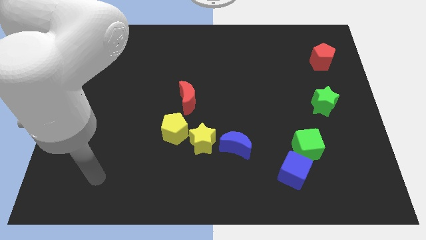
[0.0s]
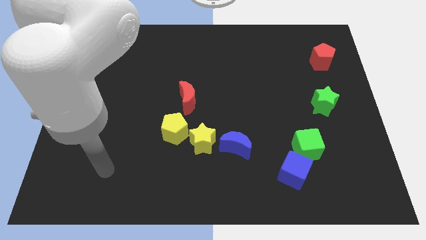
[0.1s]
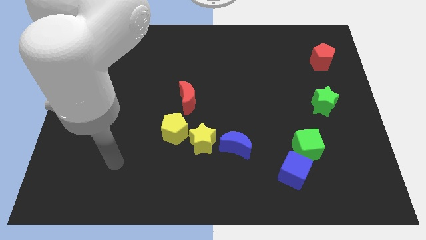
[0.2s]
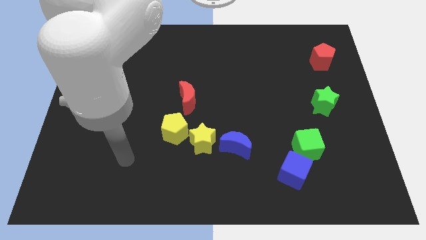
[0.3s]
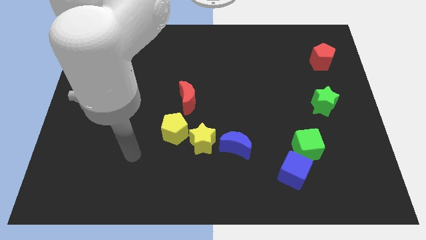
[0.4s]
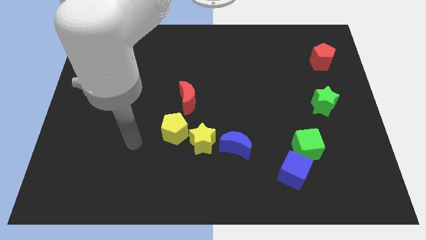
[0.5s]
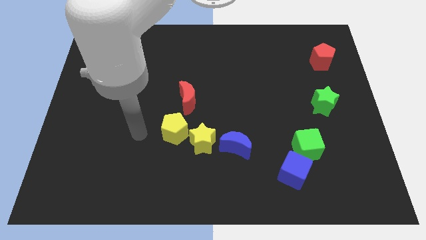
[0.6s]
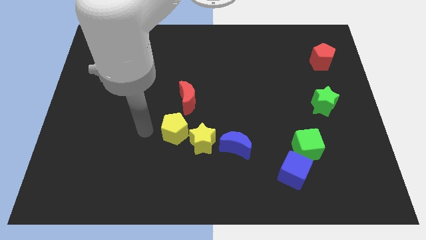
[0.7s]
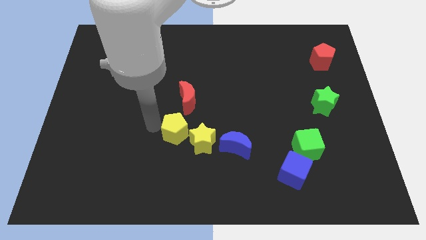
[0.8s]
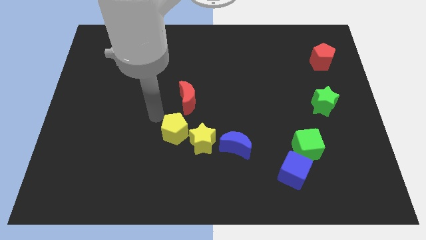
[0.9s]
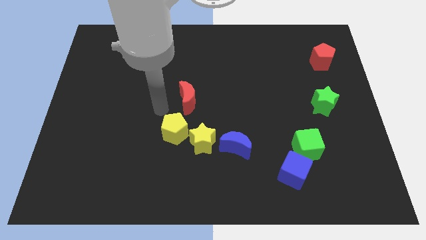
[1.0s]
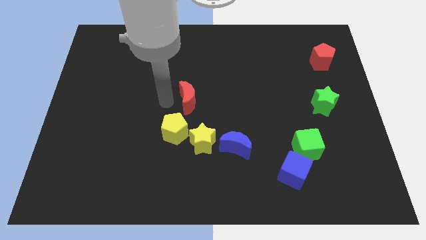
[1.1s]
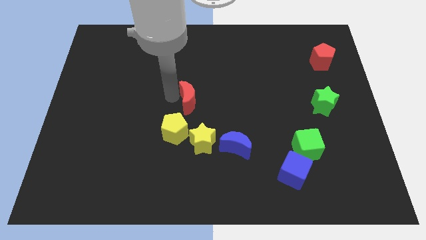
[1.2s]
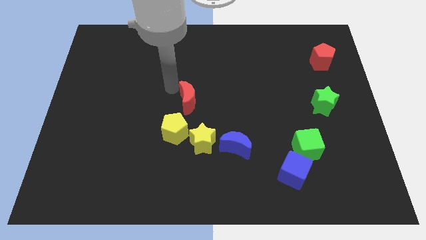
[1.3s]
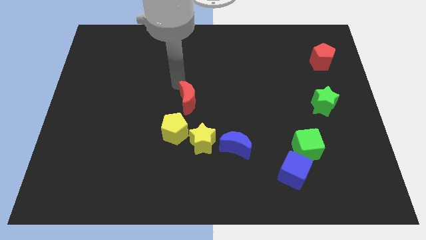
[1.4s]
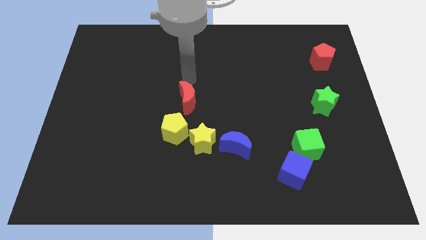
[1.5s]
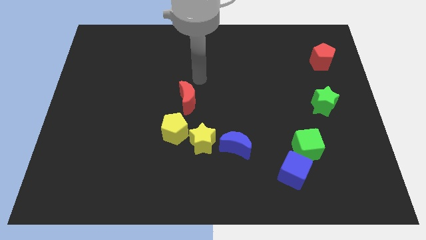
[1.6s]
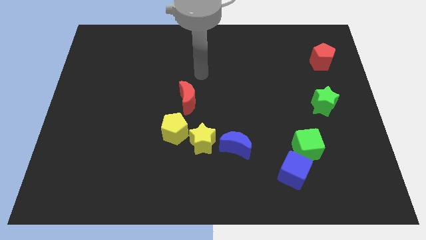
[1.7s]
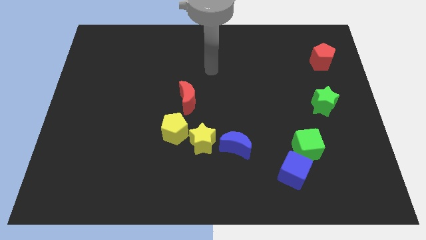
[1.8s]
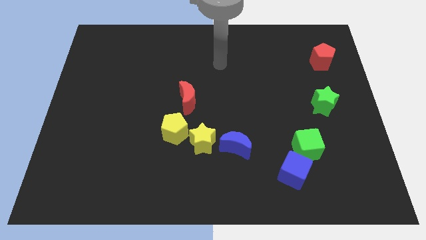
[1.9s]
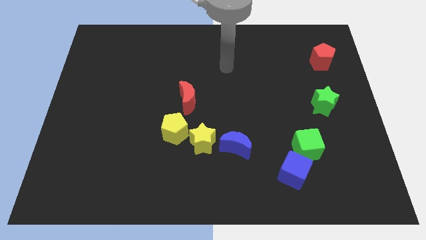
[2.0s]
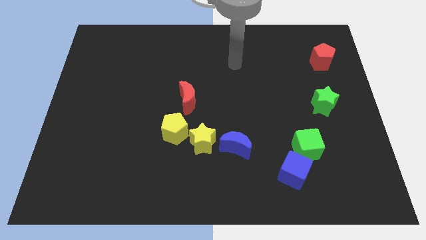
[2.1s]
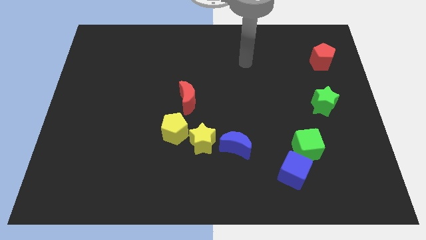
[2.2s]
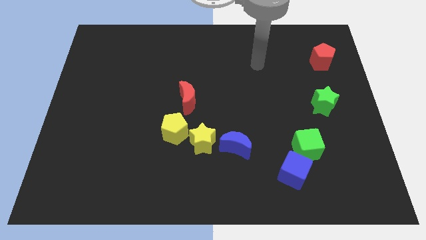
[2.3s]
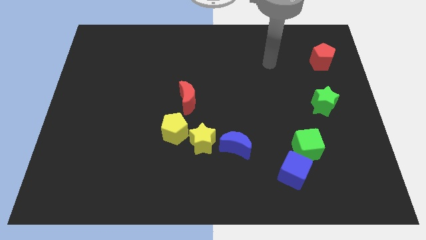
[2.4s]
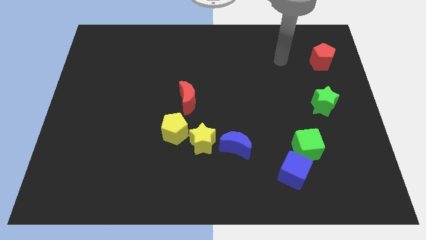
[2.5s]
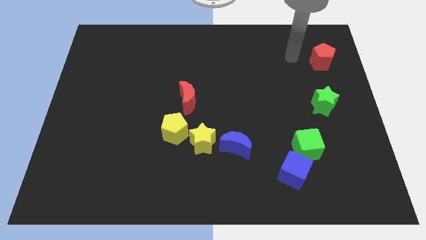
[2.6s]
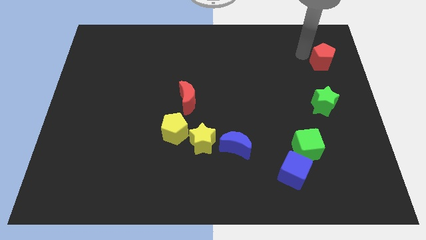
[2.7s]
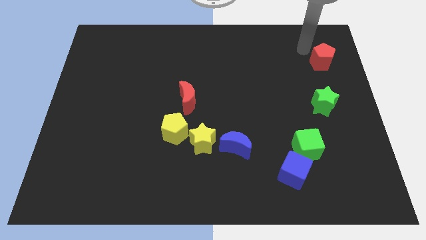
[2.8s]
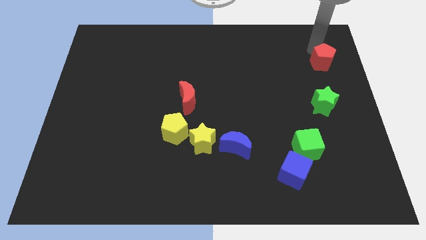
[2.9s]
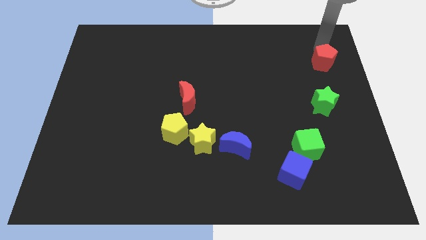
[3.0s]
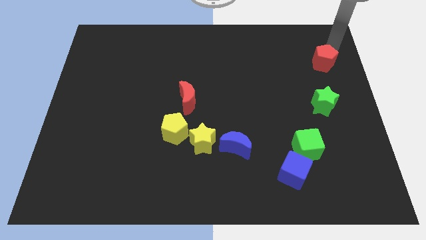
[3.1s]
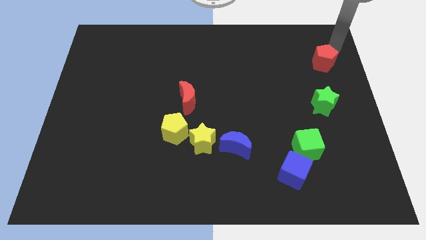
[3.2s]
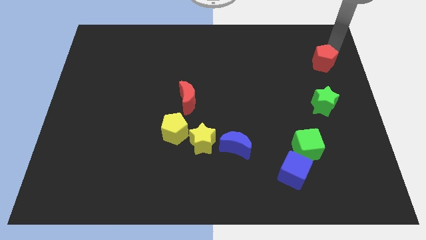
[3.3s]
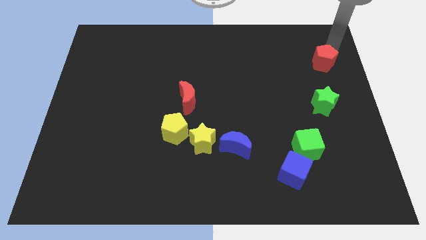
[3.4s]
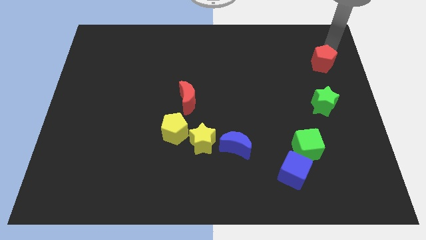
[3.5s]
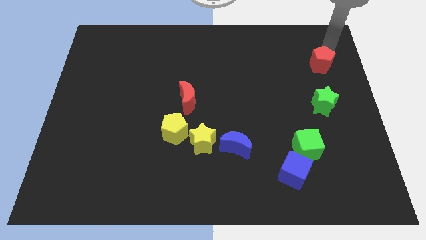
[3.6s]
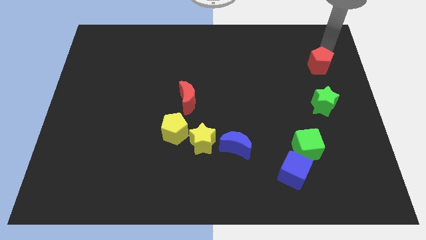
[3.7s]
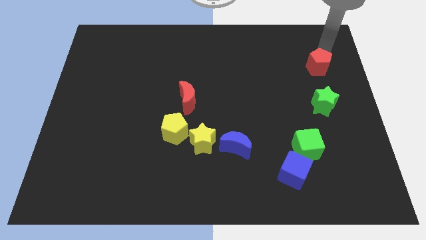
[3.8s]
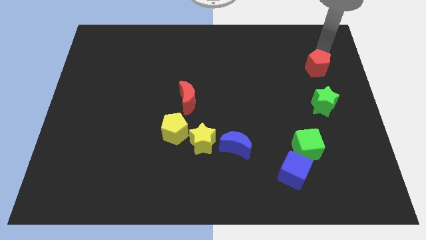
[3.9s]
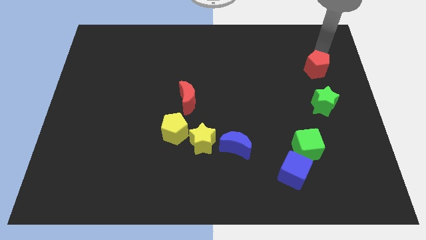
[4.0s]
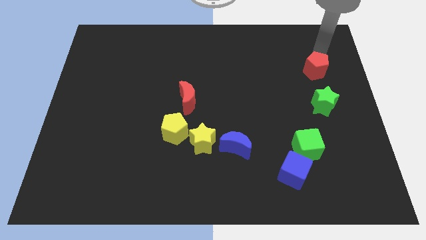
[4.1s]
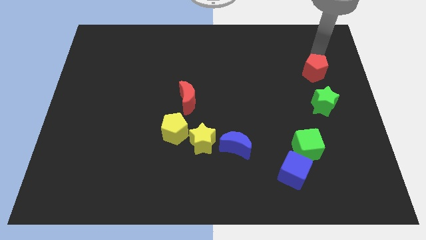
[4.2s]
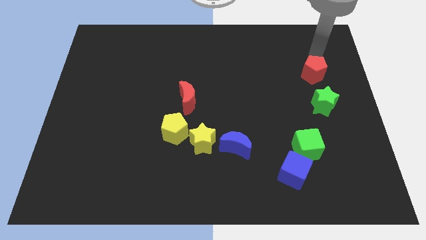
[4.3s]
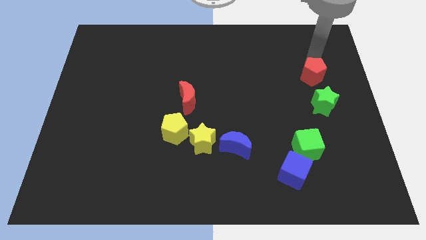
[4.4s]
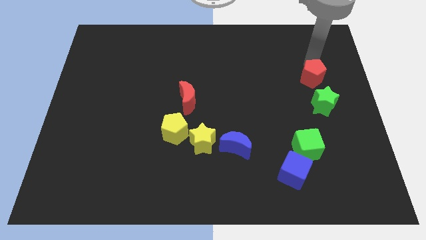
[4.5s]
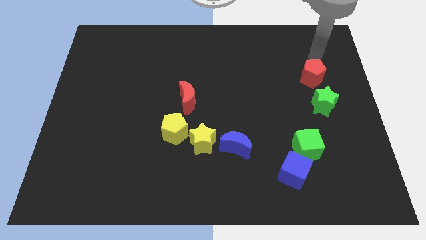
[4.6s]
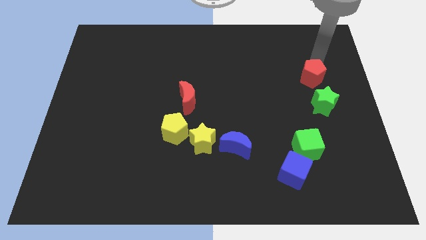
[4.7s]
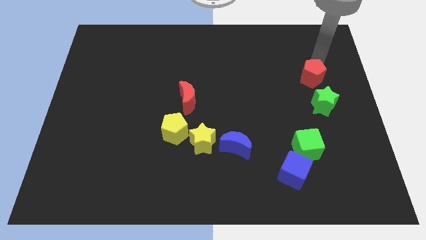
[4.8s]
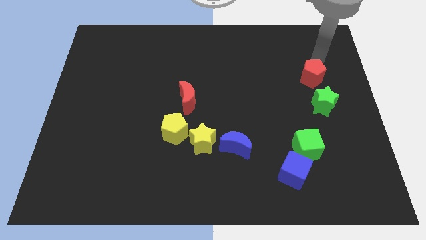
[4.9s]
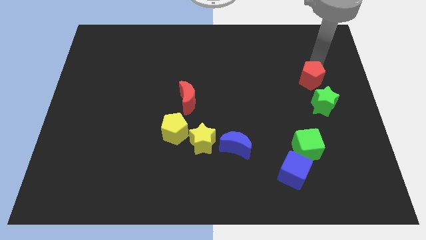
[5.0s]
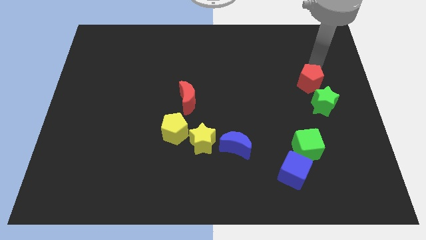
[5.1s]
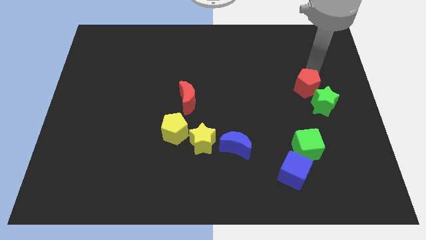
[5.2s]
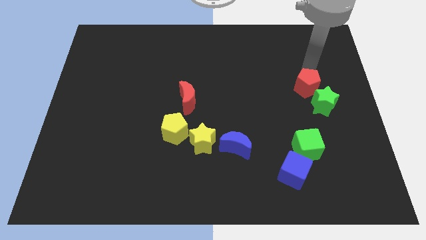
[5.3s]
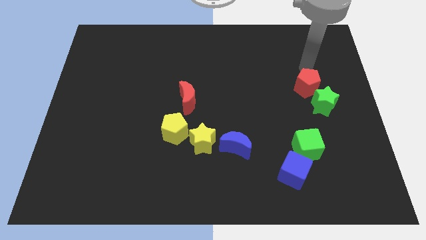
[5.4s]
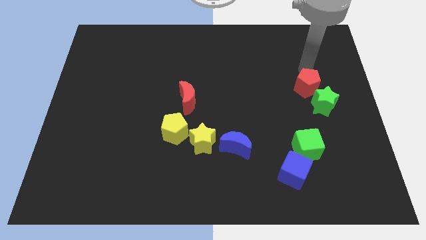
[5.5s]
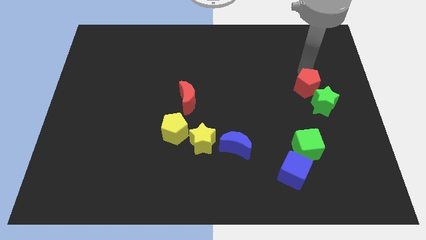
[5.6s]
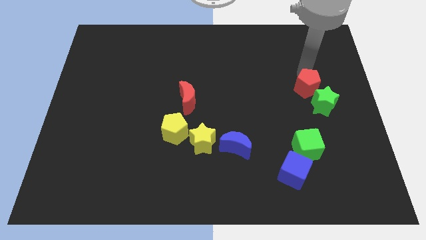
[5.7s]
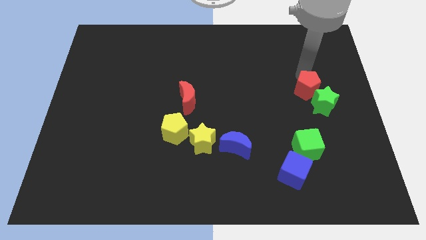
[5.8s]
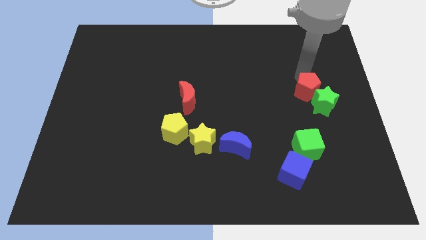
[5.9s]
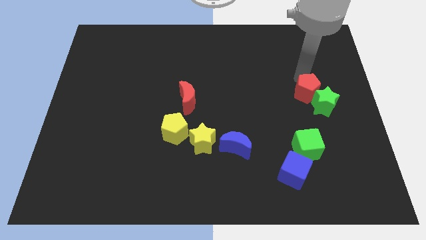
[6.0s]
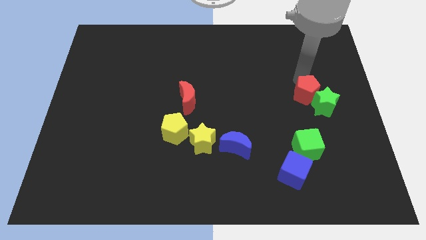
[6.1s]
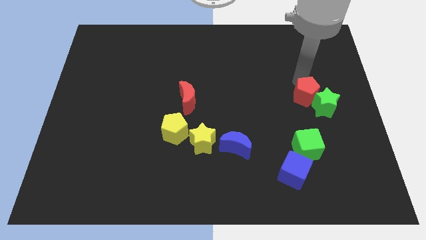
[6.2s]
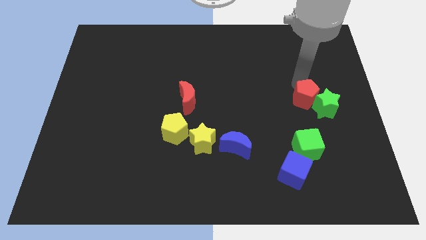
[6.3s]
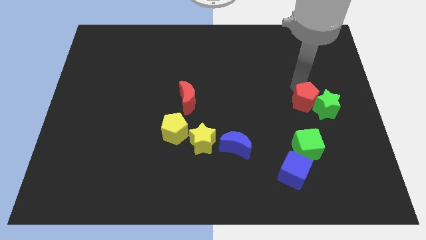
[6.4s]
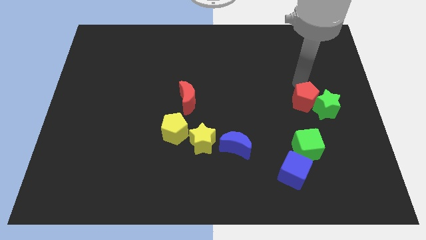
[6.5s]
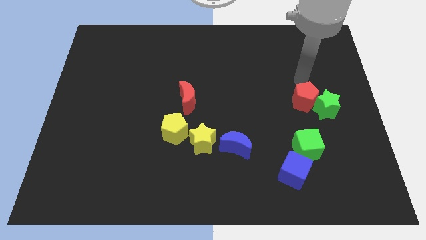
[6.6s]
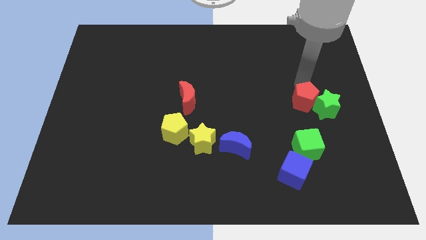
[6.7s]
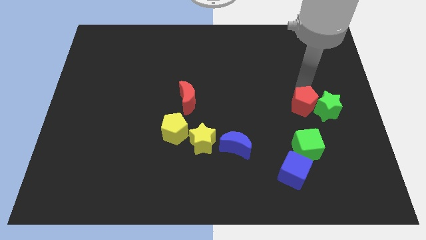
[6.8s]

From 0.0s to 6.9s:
put the red pentagon to the bottom left side of the green star
